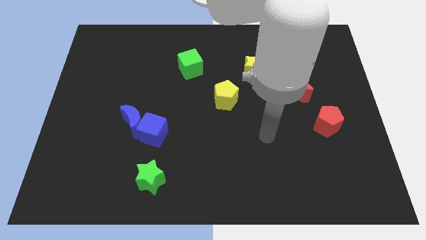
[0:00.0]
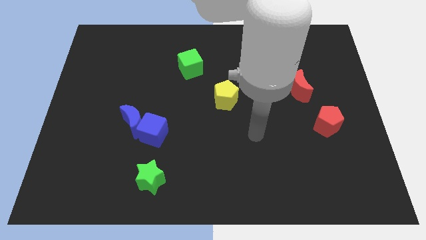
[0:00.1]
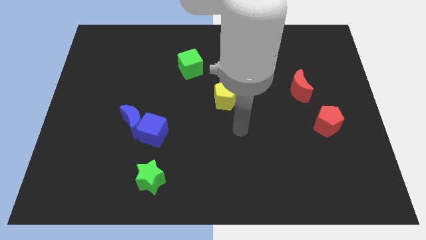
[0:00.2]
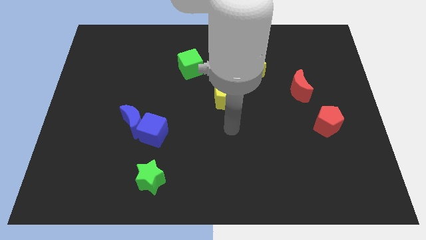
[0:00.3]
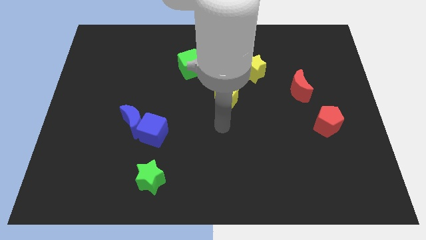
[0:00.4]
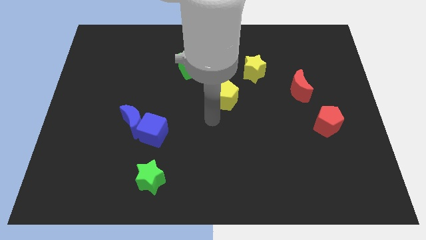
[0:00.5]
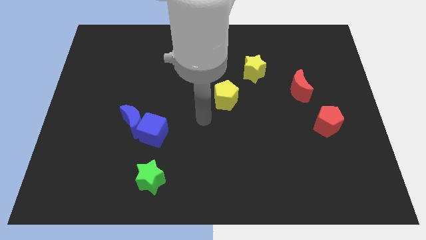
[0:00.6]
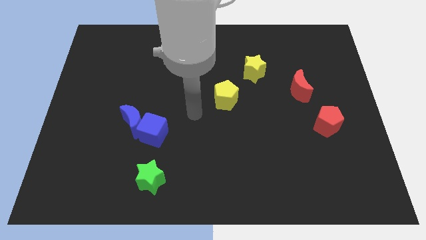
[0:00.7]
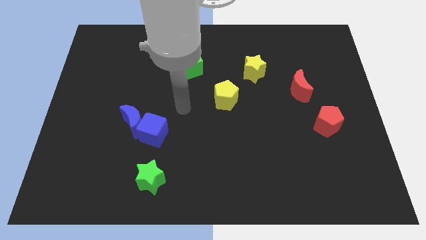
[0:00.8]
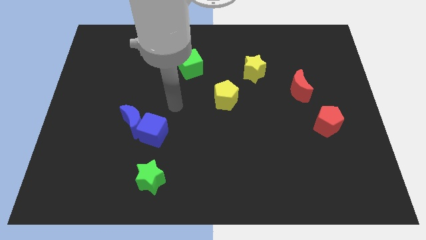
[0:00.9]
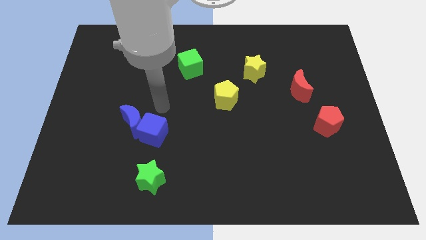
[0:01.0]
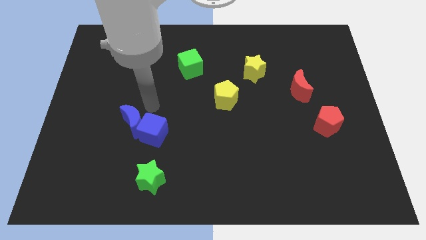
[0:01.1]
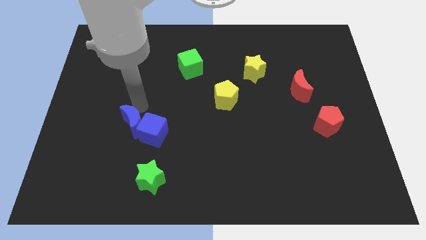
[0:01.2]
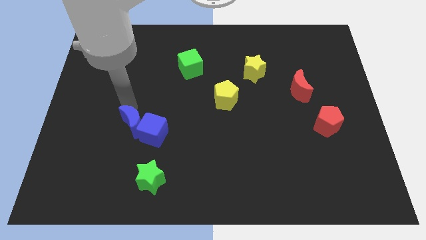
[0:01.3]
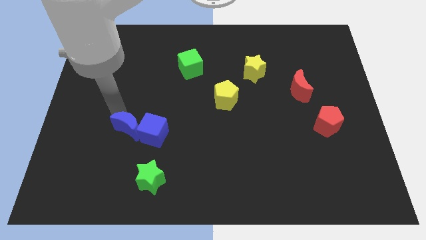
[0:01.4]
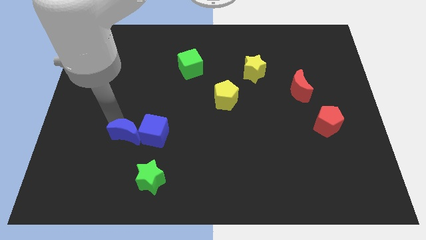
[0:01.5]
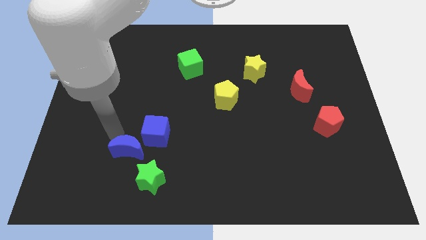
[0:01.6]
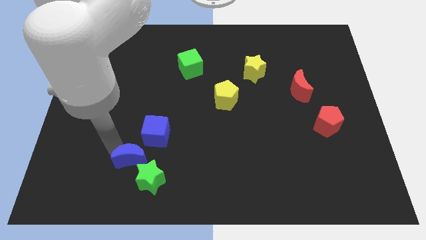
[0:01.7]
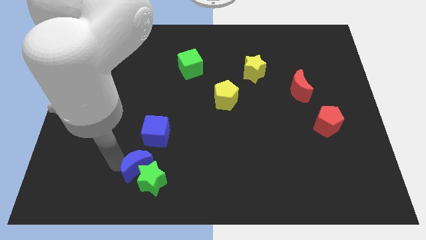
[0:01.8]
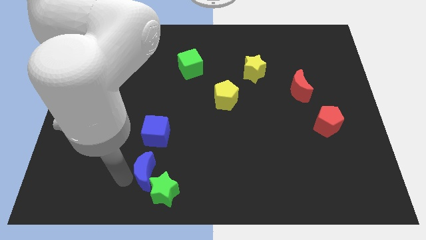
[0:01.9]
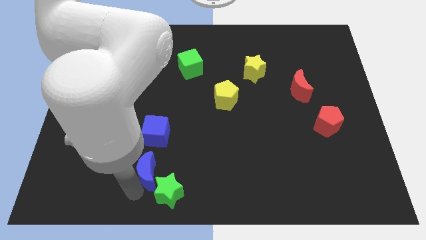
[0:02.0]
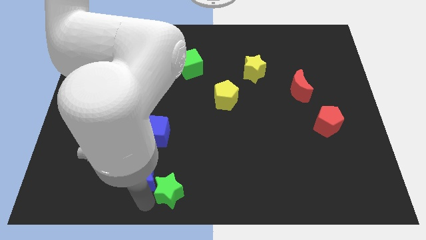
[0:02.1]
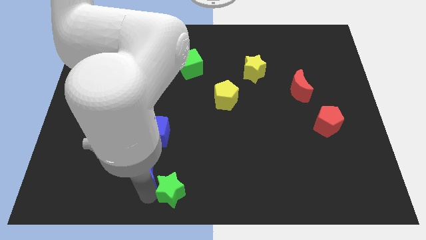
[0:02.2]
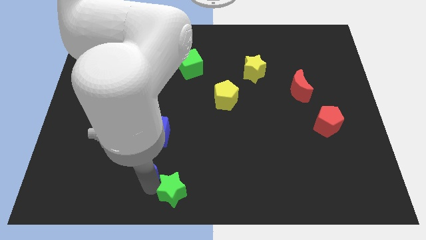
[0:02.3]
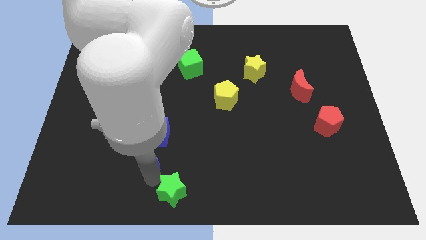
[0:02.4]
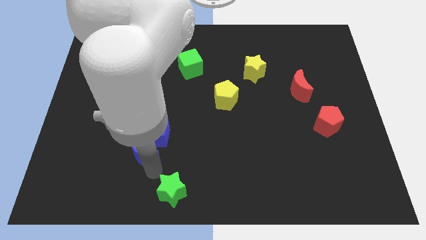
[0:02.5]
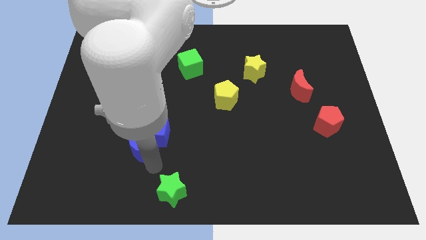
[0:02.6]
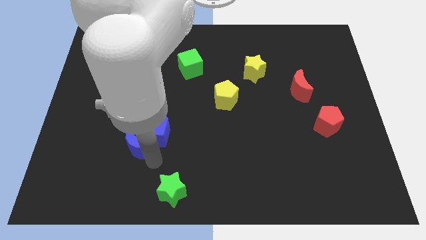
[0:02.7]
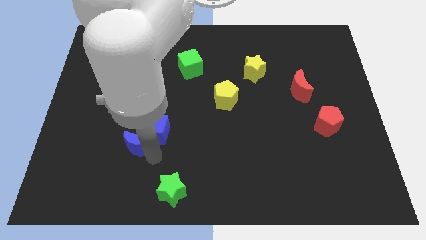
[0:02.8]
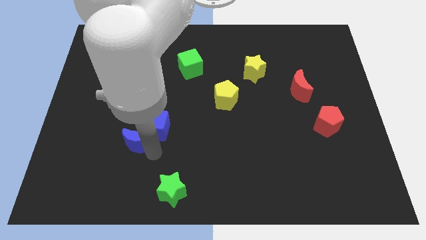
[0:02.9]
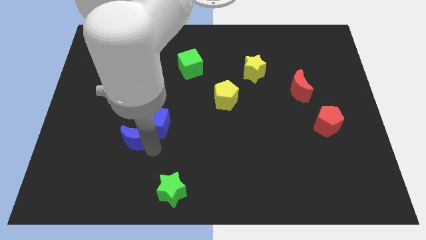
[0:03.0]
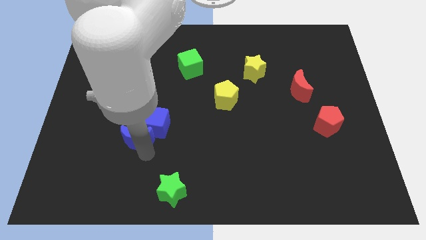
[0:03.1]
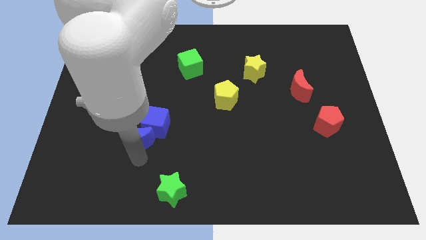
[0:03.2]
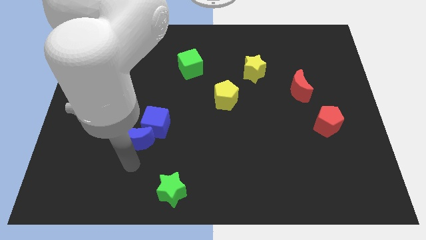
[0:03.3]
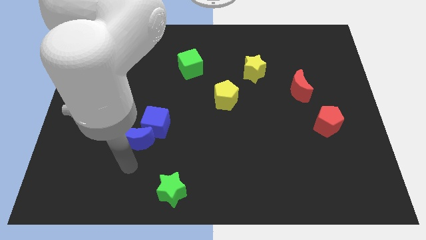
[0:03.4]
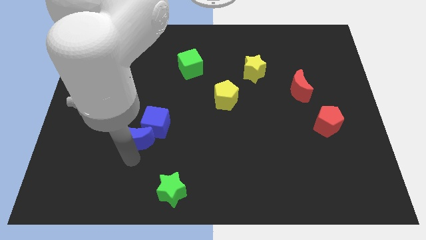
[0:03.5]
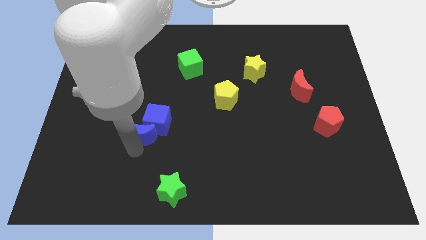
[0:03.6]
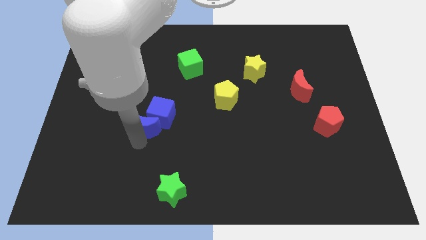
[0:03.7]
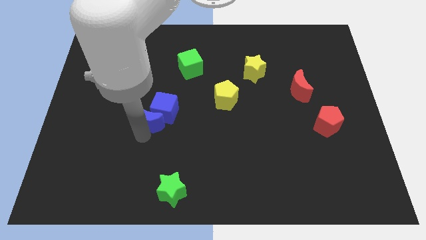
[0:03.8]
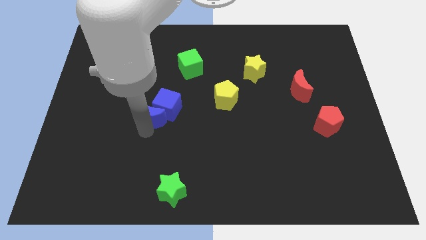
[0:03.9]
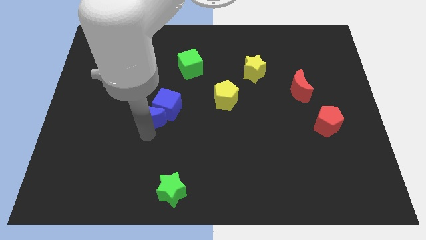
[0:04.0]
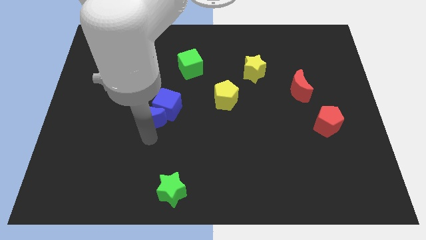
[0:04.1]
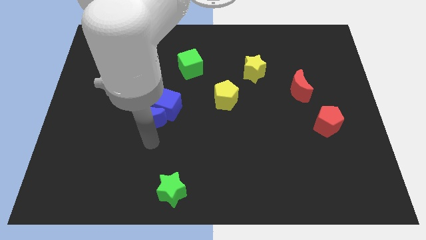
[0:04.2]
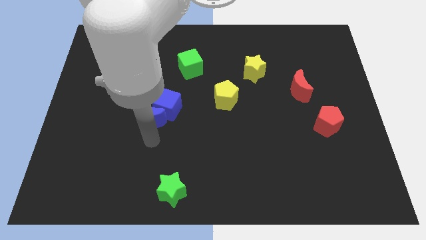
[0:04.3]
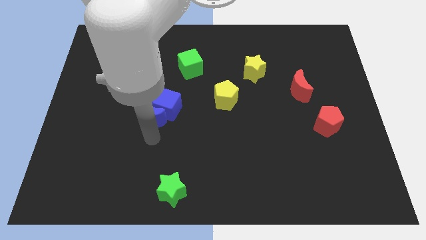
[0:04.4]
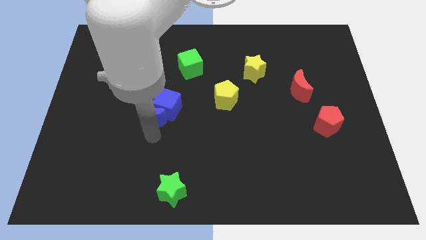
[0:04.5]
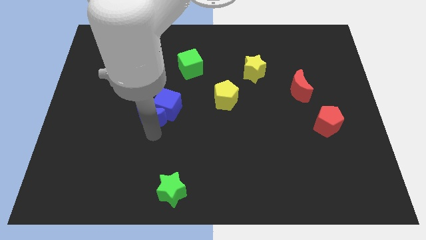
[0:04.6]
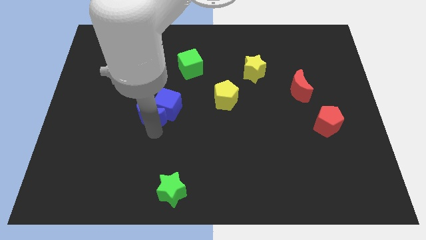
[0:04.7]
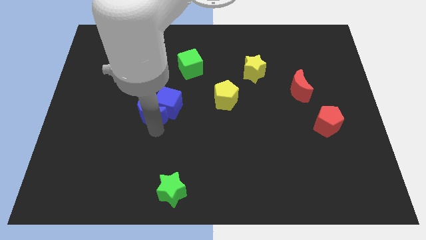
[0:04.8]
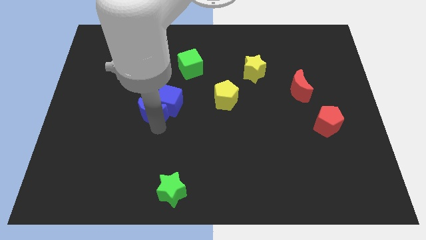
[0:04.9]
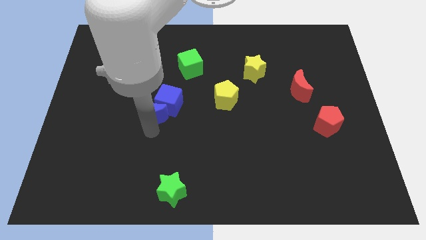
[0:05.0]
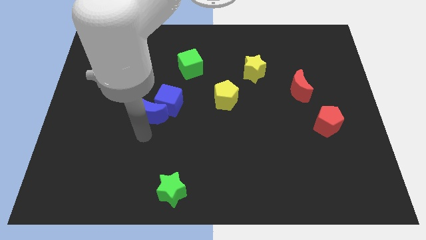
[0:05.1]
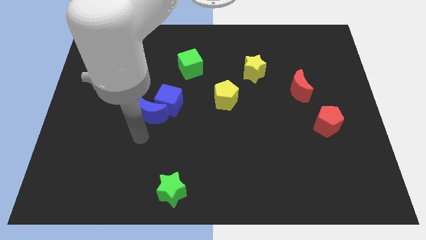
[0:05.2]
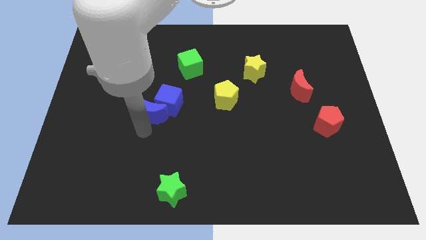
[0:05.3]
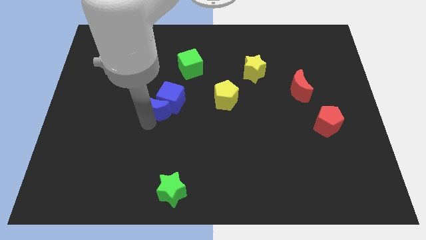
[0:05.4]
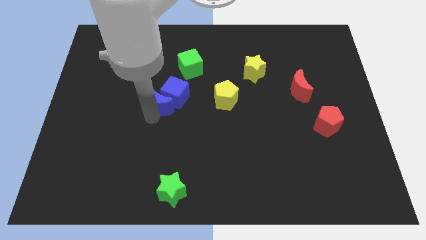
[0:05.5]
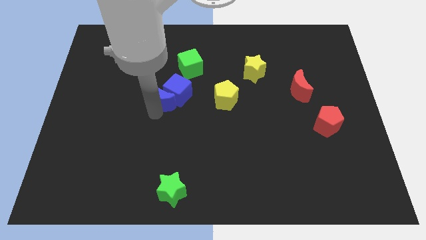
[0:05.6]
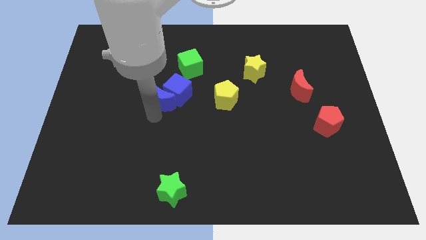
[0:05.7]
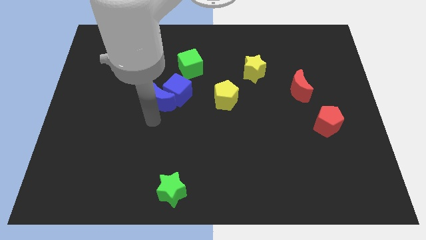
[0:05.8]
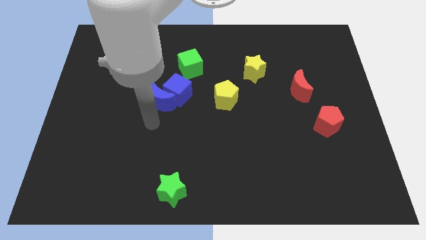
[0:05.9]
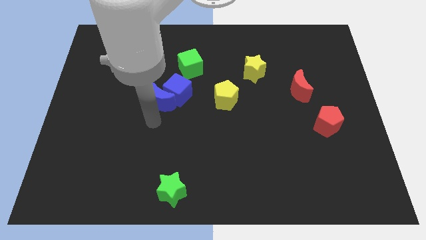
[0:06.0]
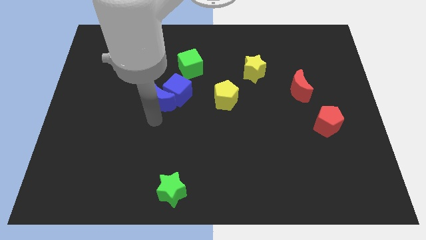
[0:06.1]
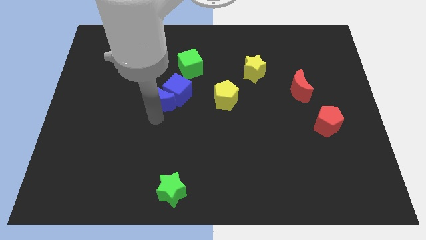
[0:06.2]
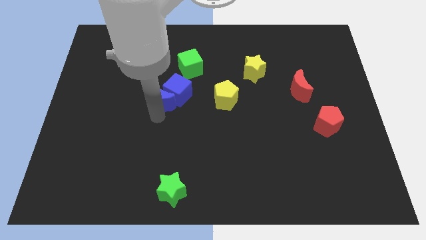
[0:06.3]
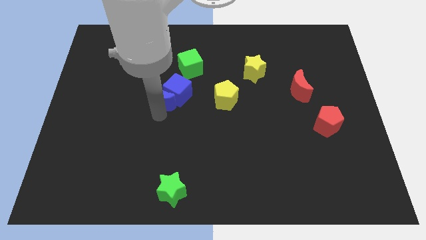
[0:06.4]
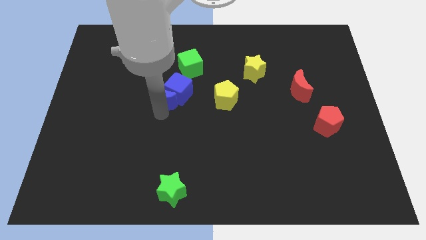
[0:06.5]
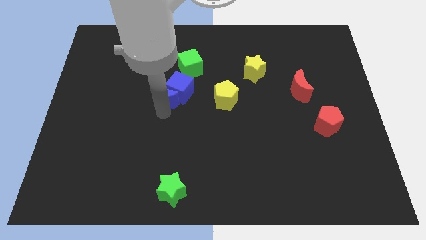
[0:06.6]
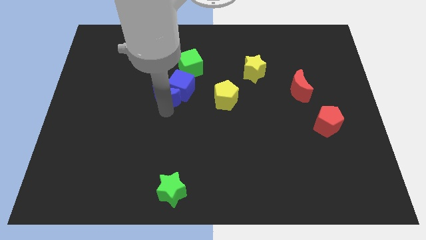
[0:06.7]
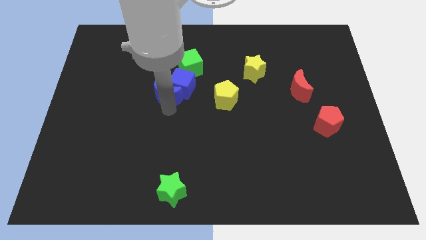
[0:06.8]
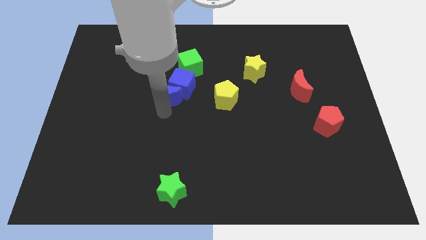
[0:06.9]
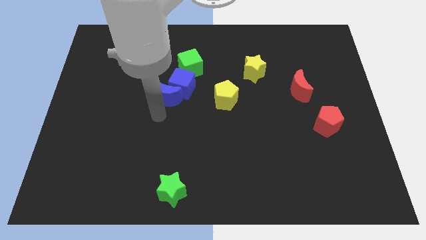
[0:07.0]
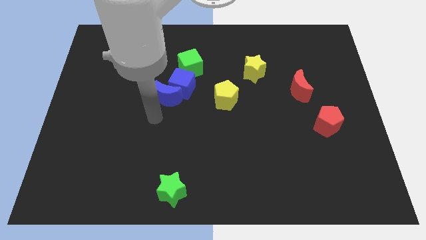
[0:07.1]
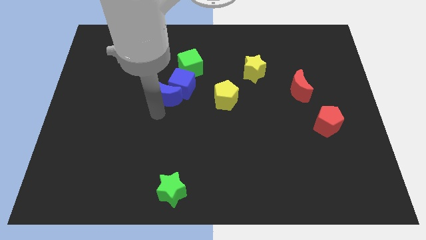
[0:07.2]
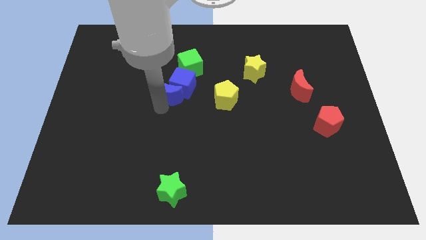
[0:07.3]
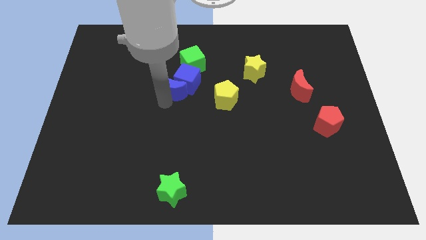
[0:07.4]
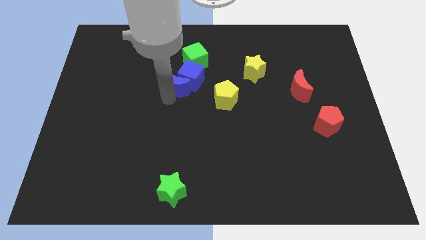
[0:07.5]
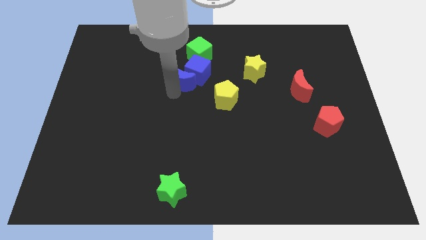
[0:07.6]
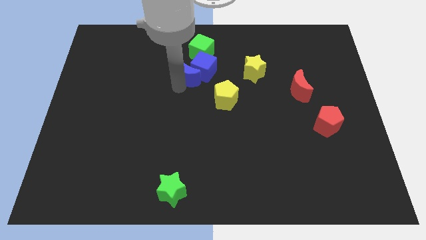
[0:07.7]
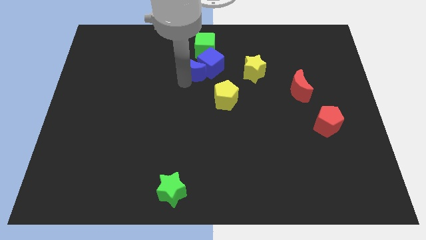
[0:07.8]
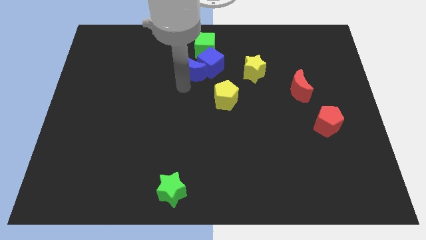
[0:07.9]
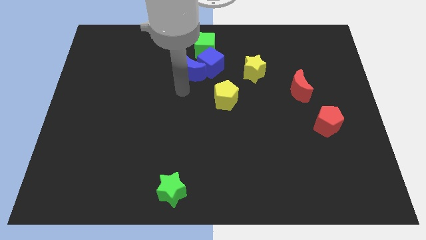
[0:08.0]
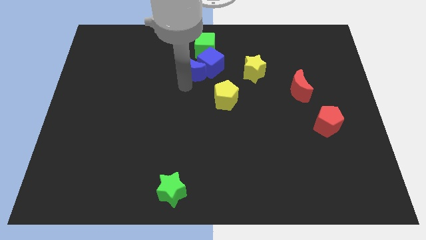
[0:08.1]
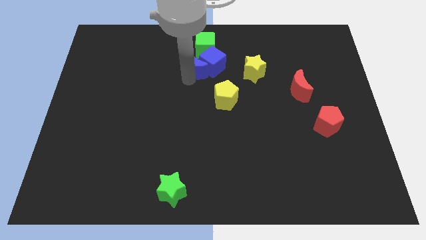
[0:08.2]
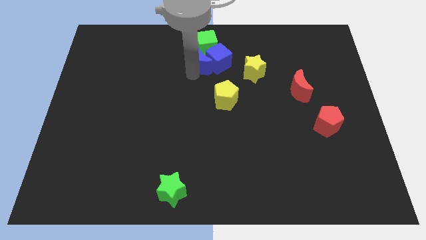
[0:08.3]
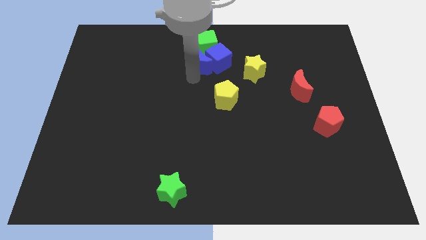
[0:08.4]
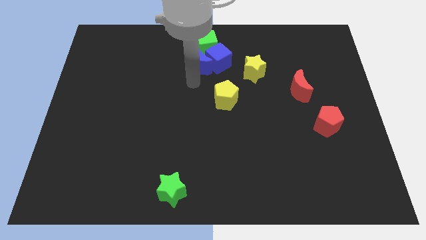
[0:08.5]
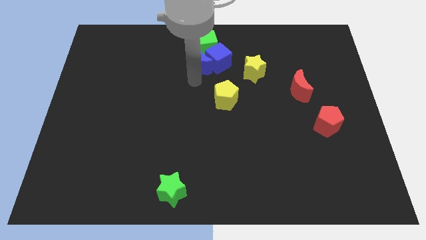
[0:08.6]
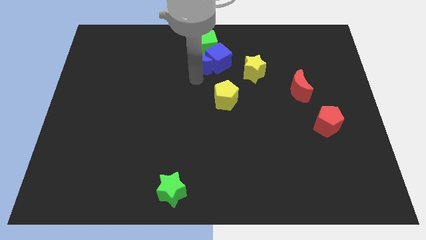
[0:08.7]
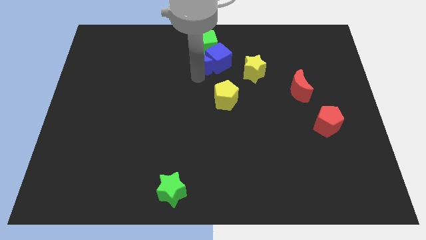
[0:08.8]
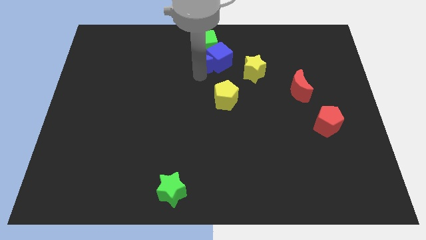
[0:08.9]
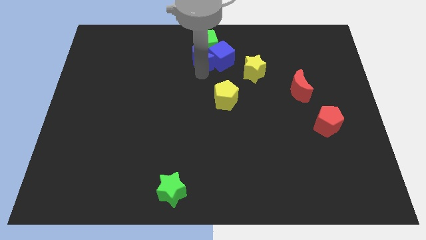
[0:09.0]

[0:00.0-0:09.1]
move the blue moon to the green cube
